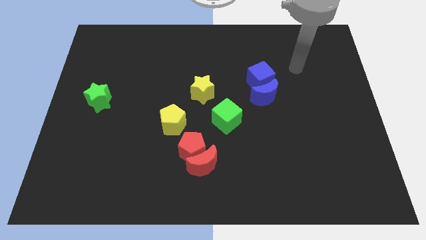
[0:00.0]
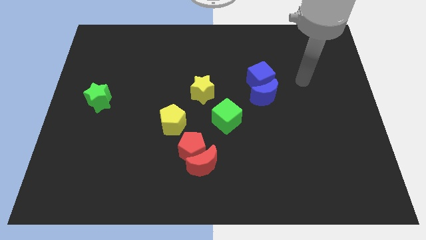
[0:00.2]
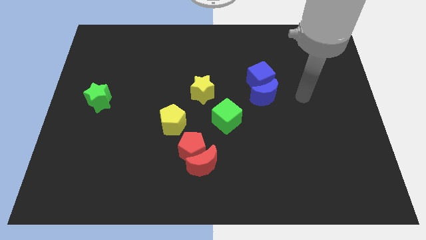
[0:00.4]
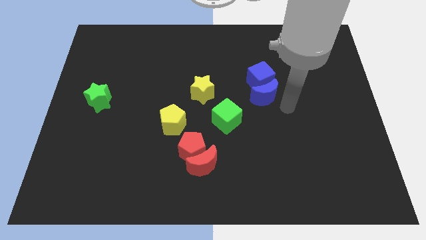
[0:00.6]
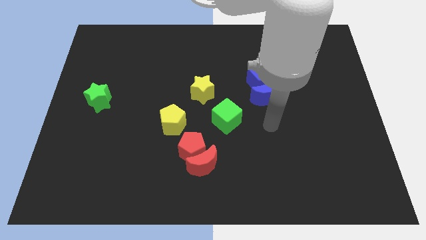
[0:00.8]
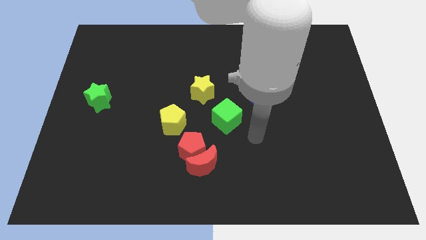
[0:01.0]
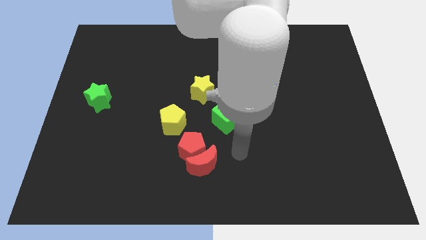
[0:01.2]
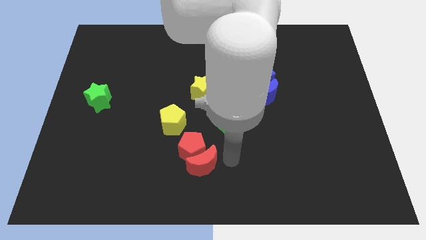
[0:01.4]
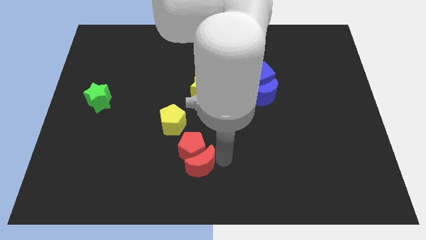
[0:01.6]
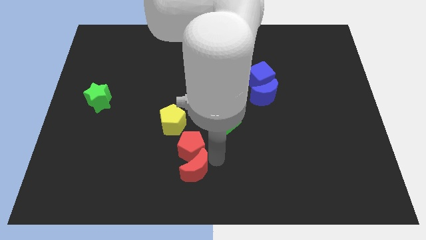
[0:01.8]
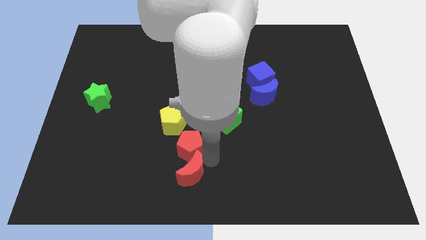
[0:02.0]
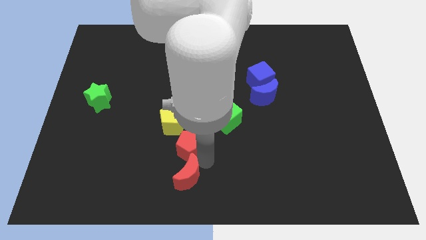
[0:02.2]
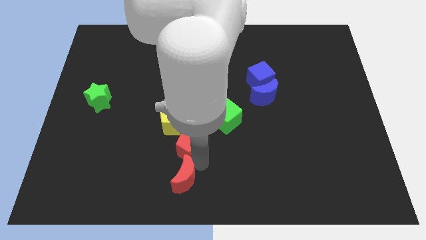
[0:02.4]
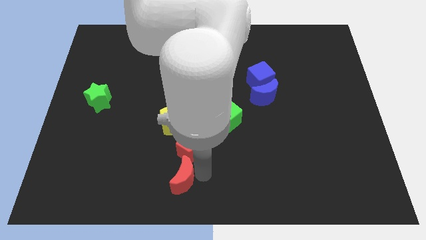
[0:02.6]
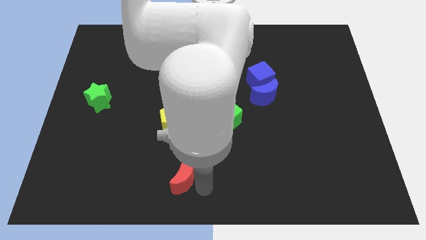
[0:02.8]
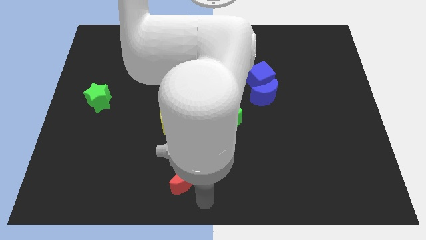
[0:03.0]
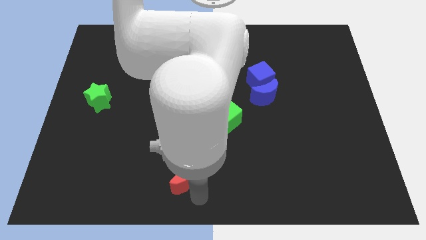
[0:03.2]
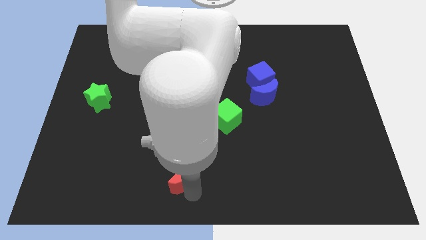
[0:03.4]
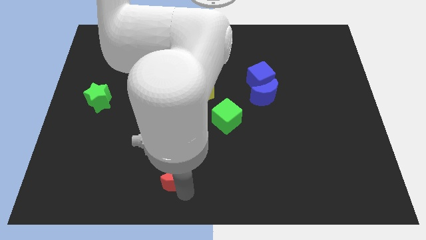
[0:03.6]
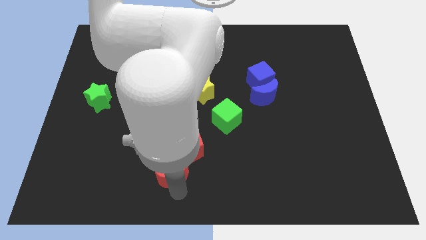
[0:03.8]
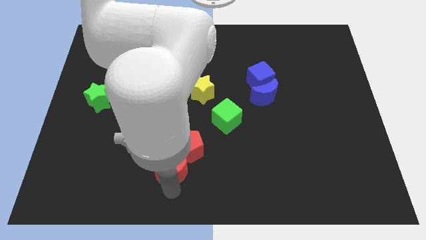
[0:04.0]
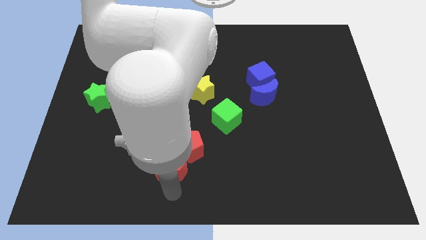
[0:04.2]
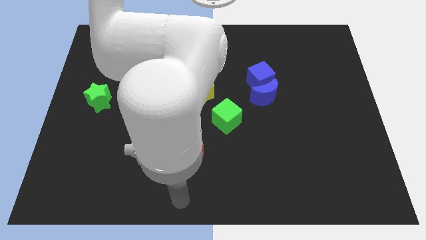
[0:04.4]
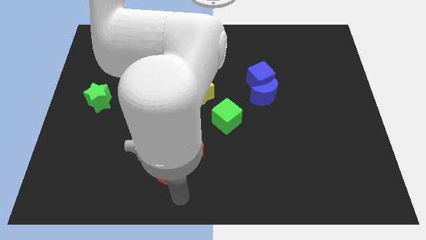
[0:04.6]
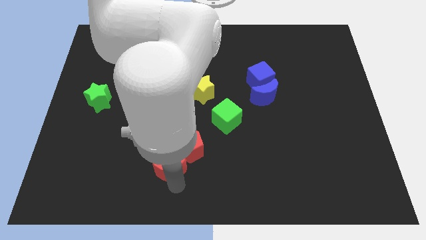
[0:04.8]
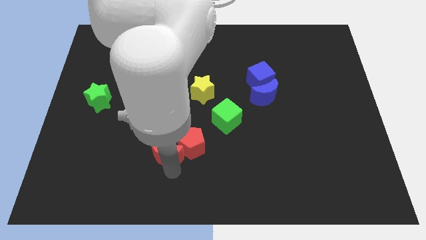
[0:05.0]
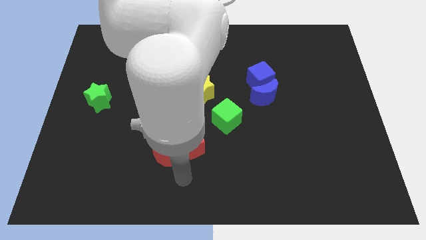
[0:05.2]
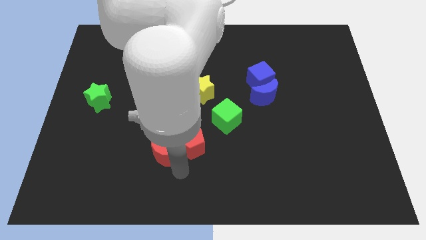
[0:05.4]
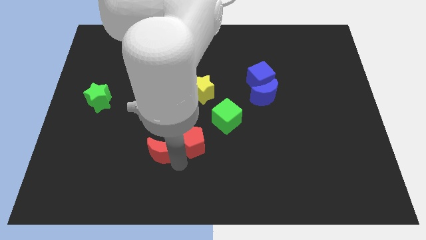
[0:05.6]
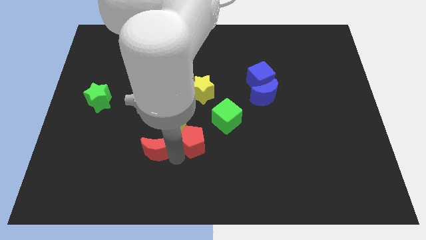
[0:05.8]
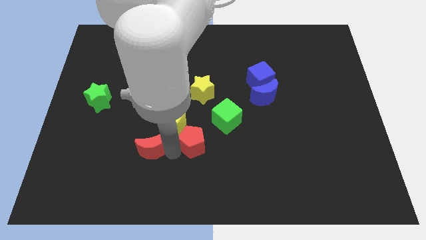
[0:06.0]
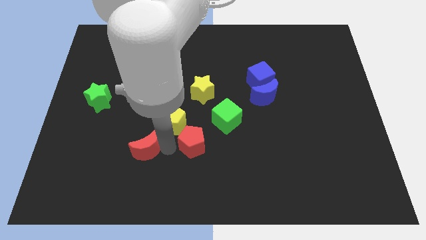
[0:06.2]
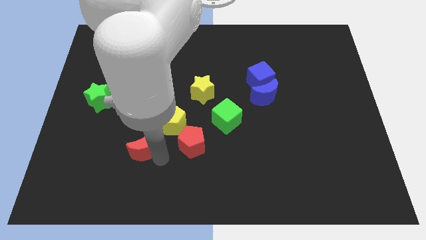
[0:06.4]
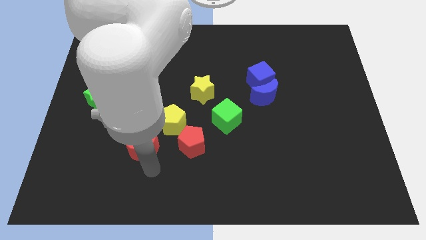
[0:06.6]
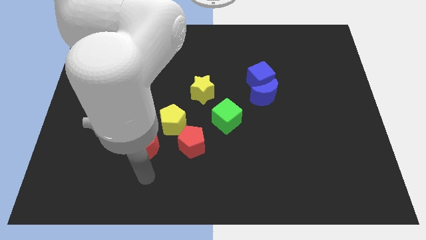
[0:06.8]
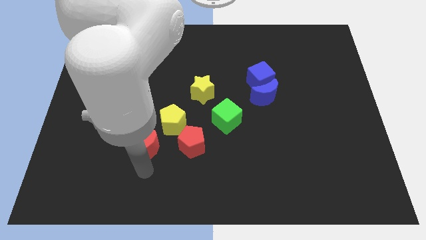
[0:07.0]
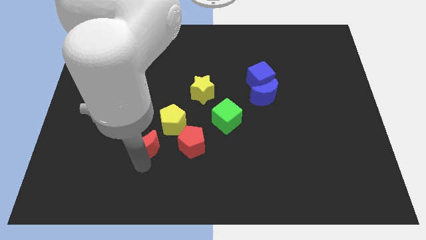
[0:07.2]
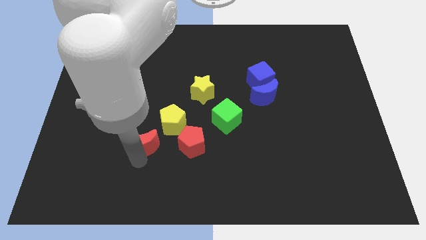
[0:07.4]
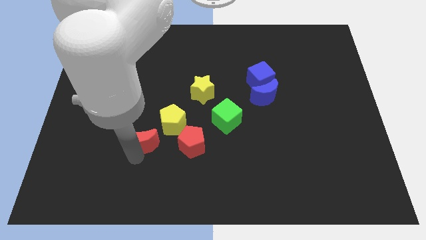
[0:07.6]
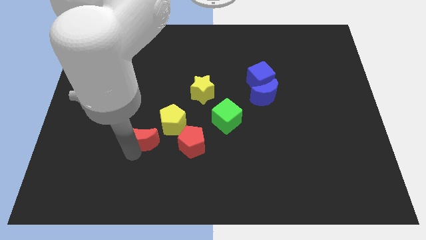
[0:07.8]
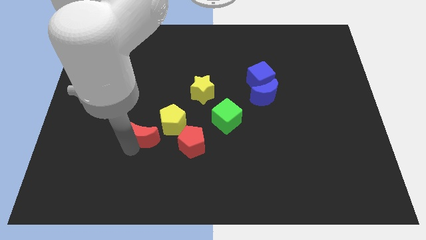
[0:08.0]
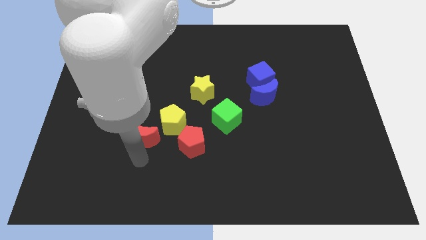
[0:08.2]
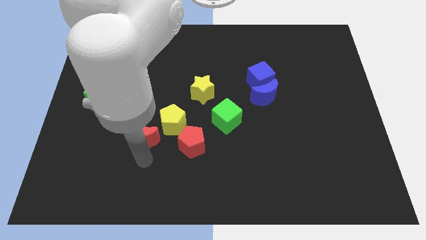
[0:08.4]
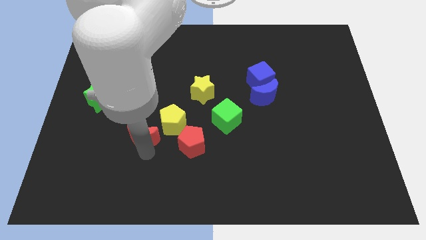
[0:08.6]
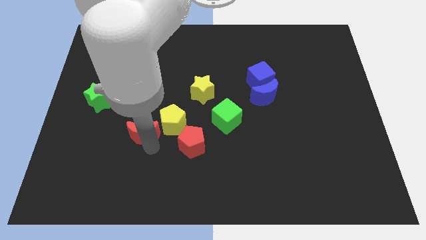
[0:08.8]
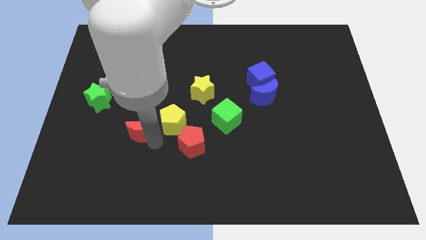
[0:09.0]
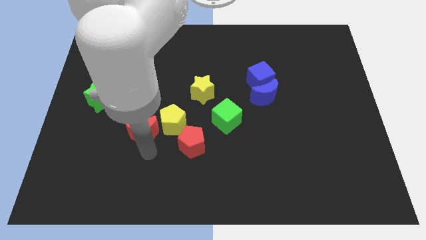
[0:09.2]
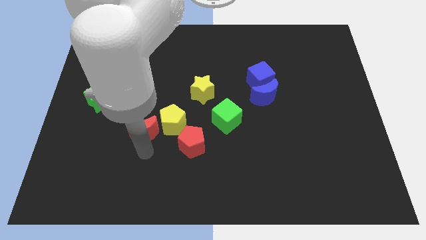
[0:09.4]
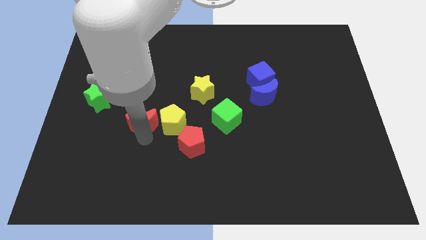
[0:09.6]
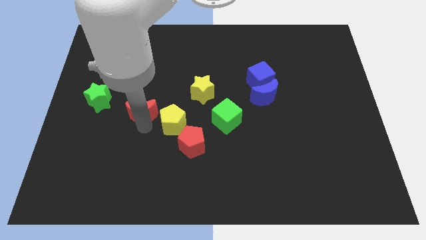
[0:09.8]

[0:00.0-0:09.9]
move the red moon diagonally up and to the left

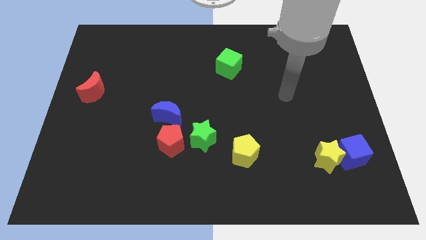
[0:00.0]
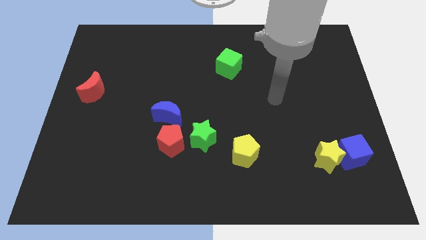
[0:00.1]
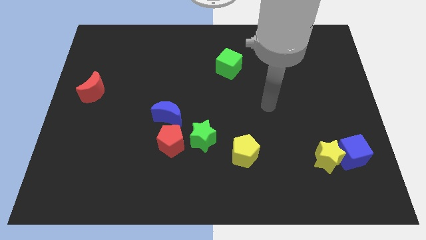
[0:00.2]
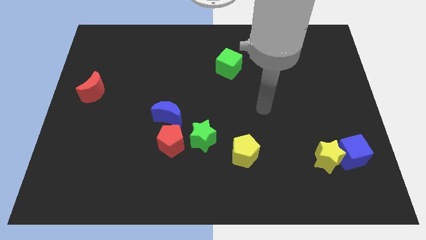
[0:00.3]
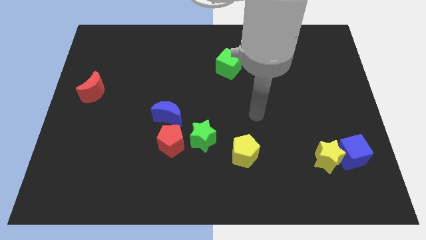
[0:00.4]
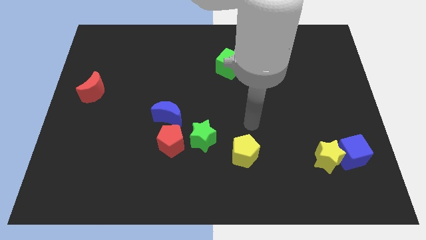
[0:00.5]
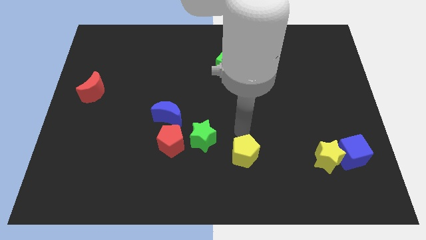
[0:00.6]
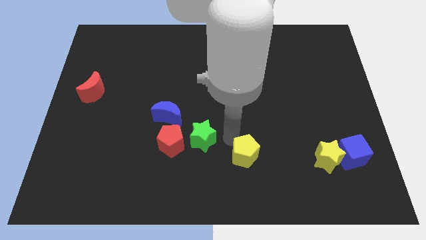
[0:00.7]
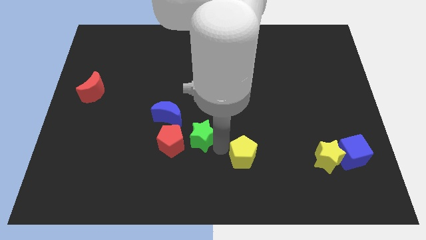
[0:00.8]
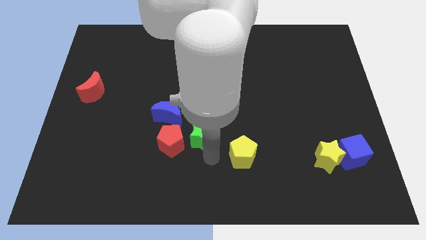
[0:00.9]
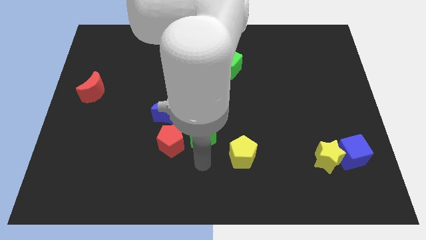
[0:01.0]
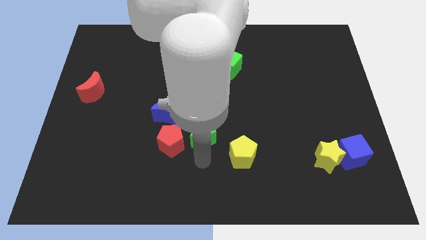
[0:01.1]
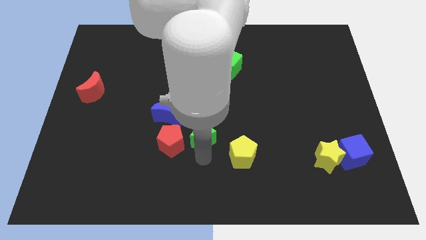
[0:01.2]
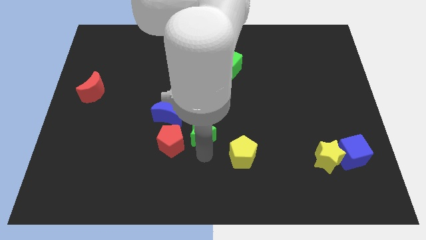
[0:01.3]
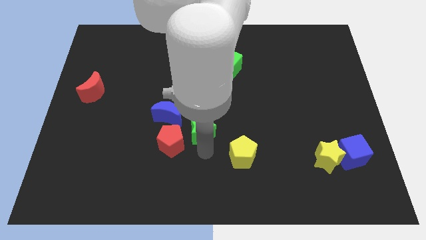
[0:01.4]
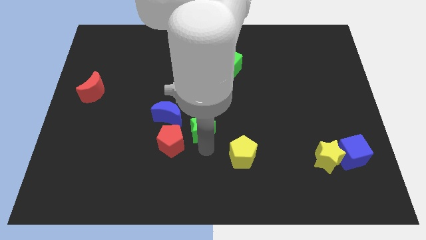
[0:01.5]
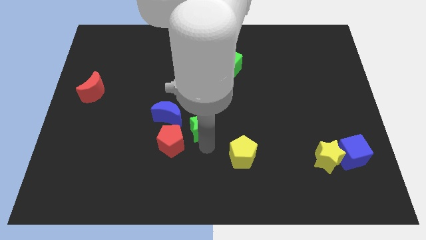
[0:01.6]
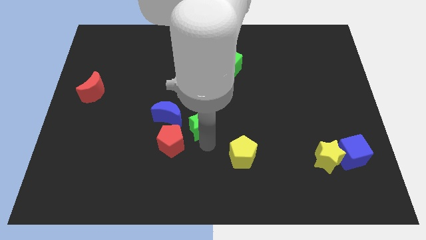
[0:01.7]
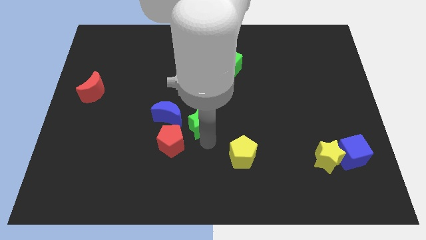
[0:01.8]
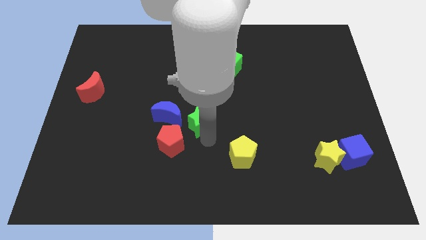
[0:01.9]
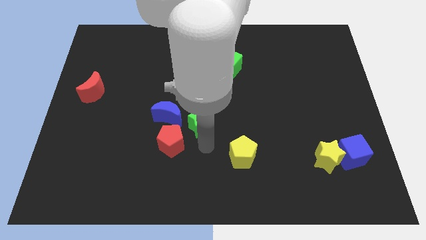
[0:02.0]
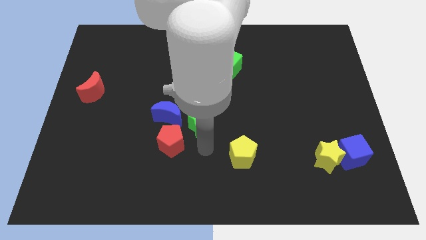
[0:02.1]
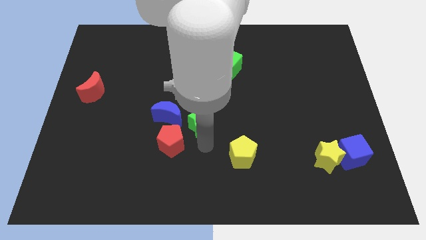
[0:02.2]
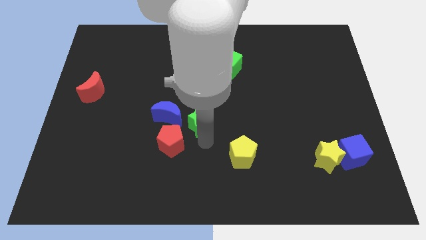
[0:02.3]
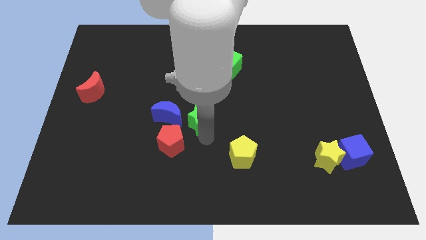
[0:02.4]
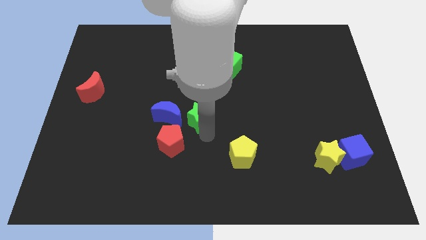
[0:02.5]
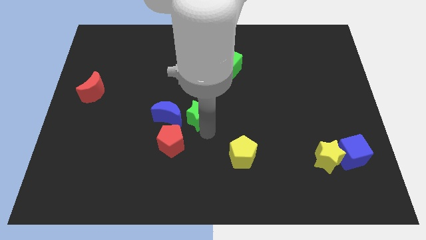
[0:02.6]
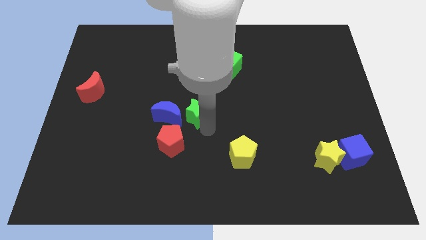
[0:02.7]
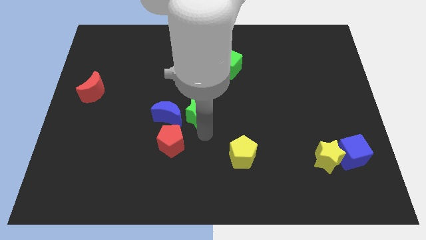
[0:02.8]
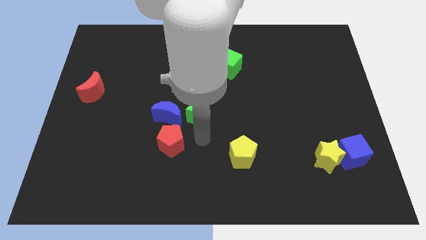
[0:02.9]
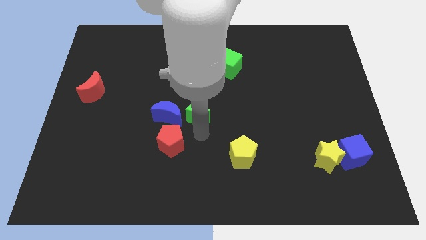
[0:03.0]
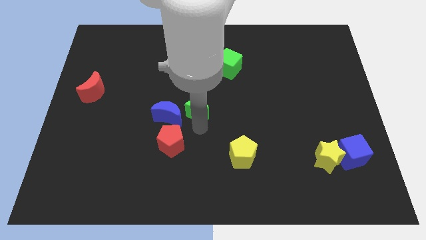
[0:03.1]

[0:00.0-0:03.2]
move the green star a little bit upwards
